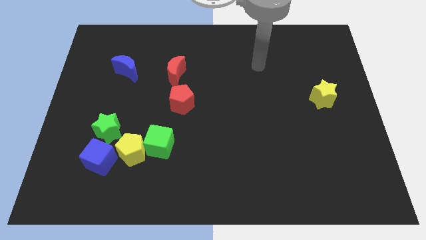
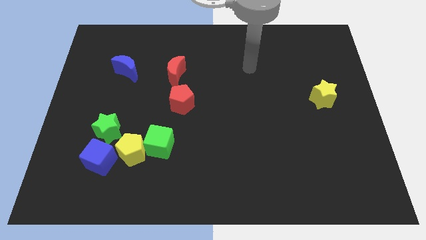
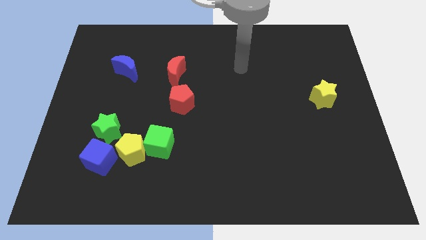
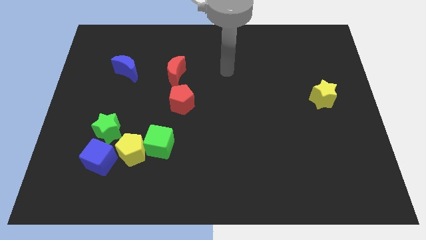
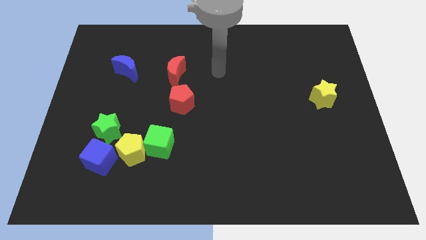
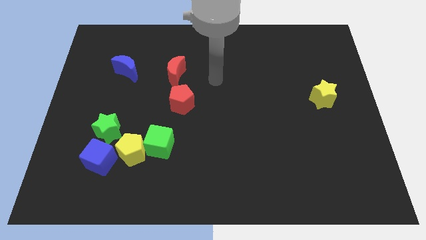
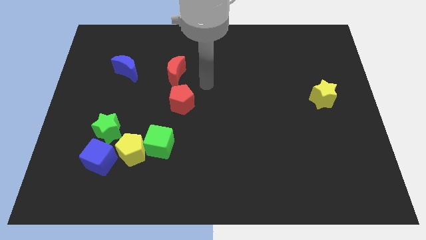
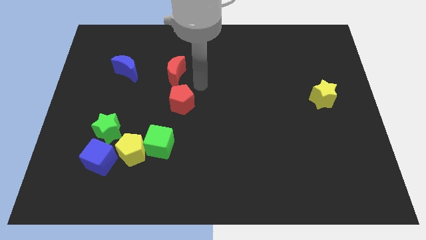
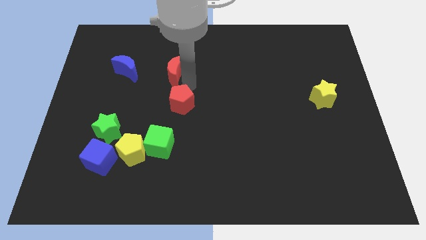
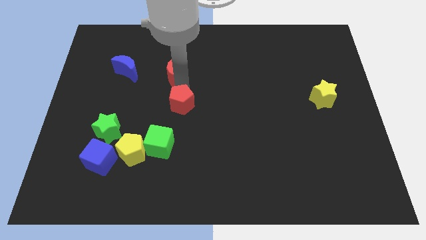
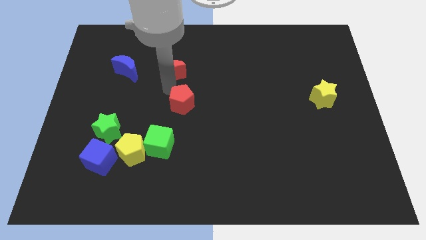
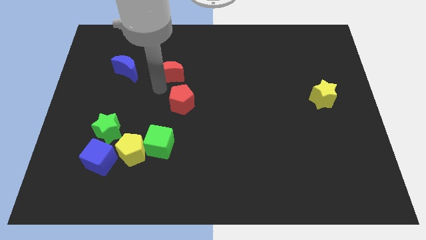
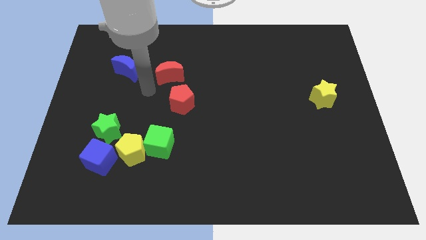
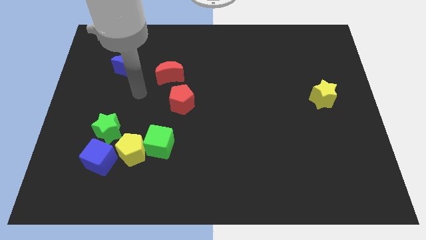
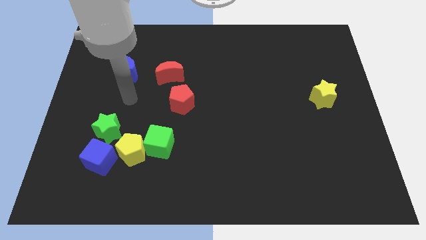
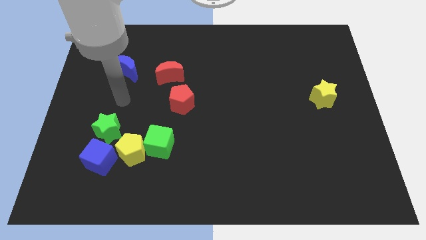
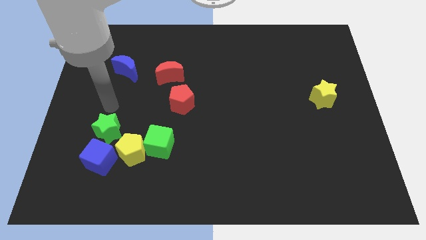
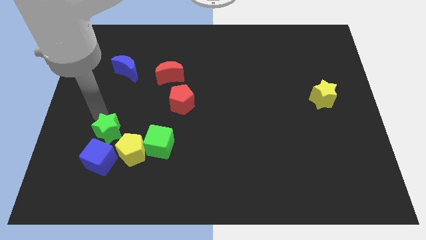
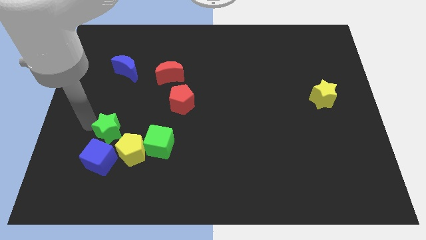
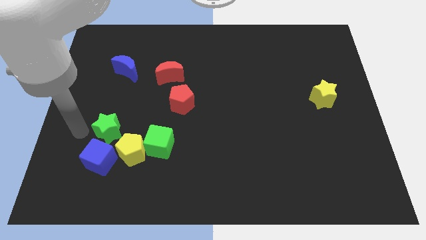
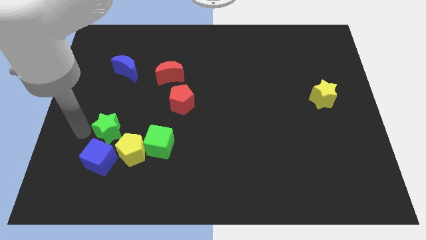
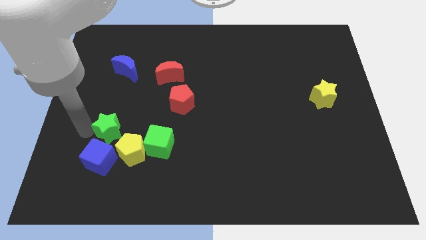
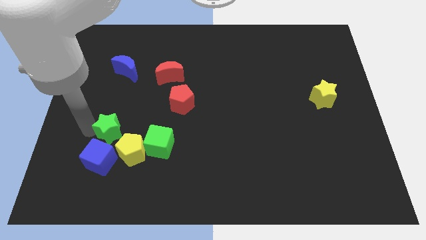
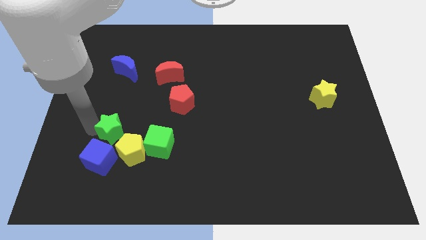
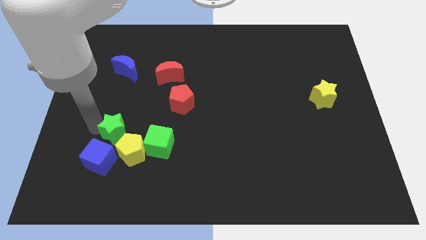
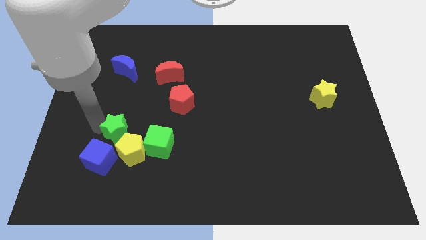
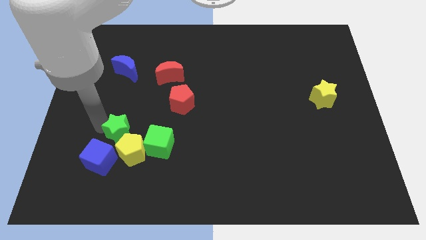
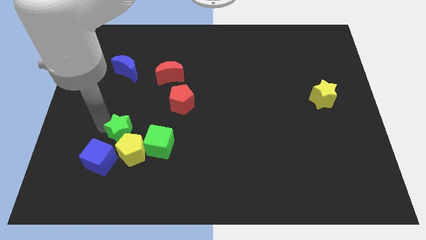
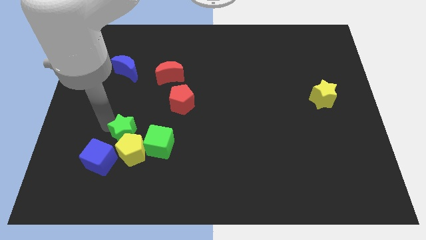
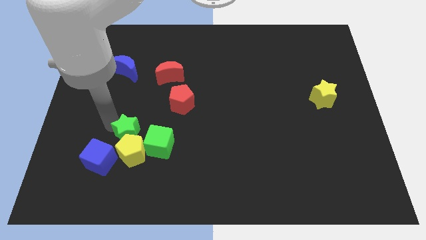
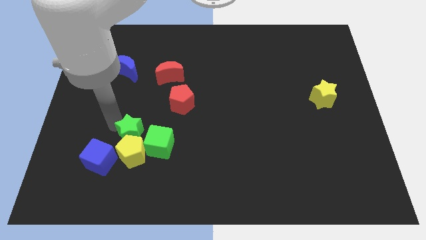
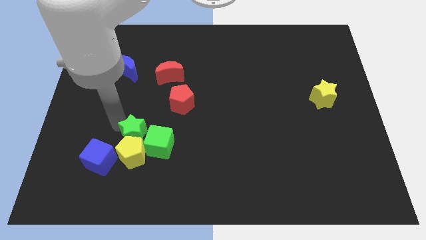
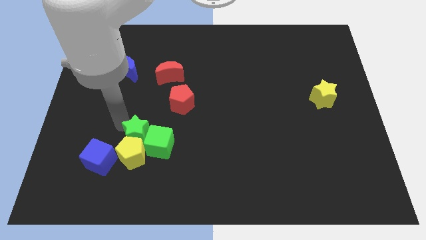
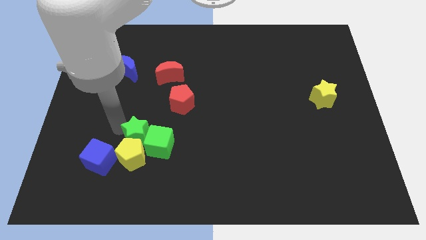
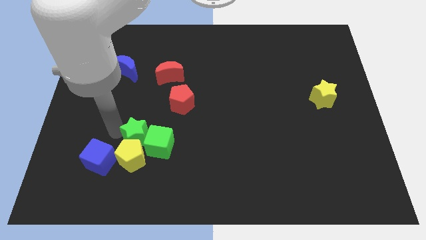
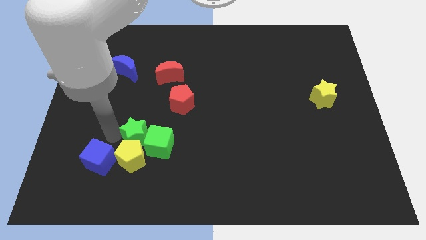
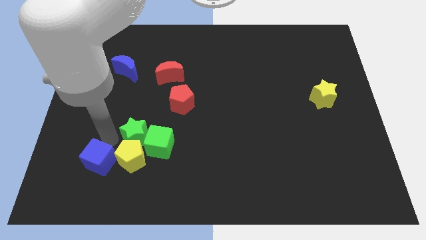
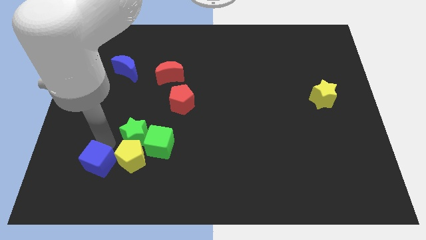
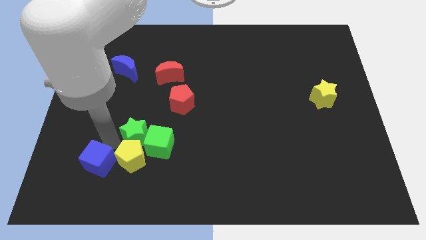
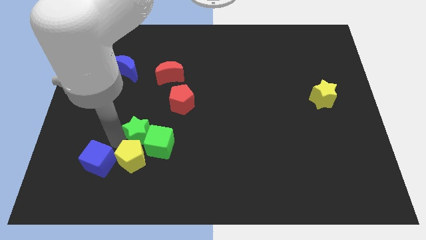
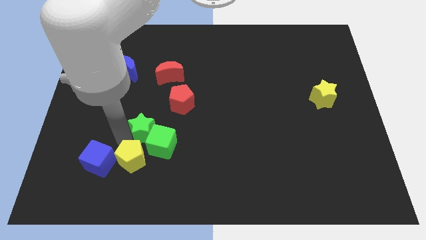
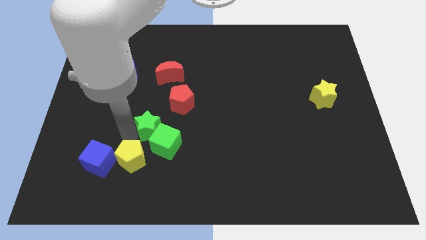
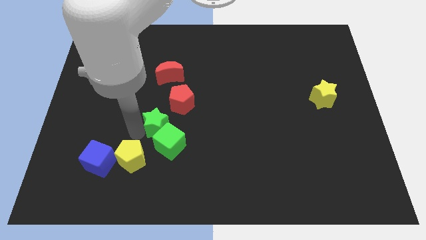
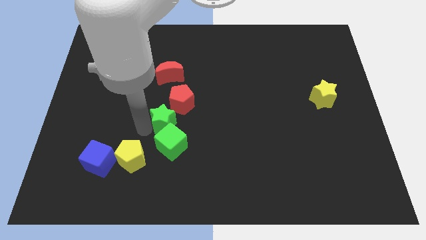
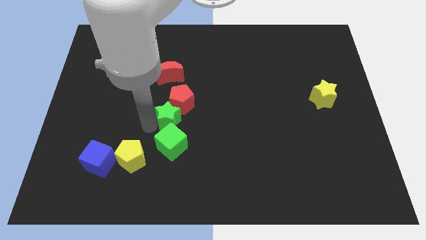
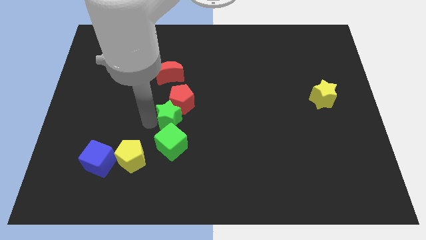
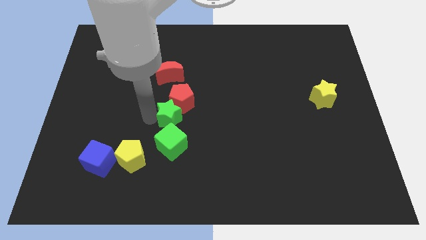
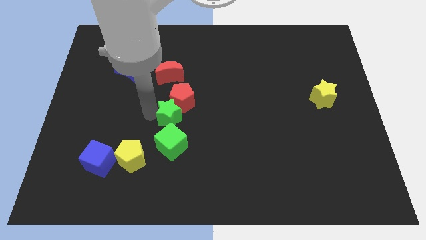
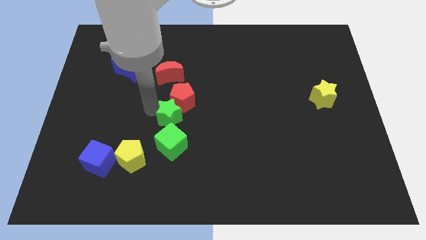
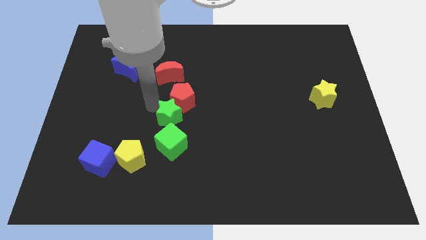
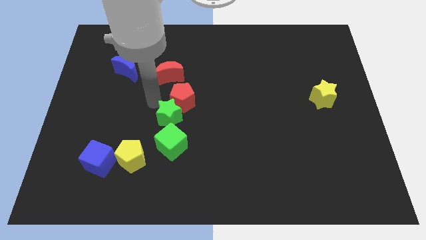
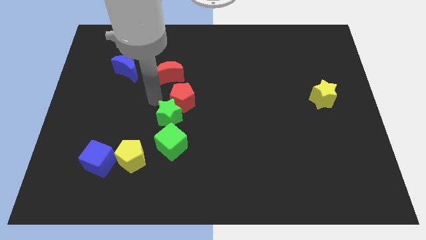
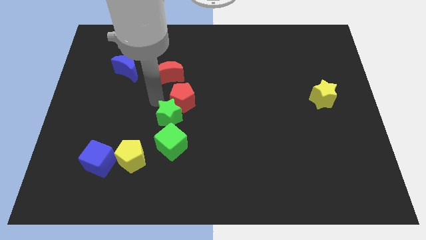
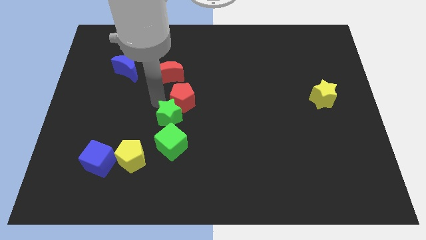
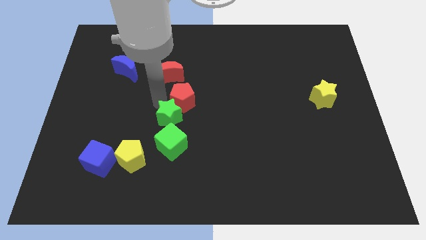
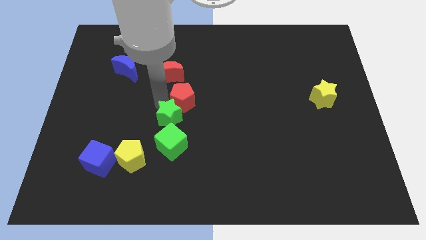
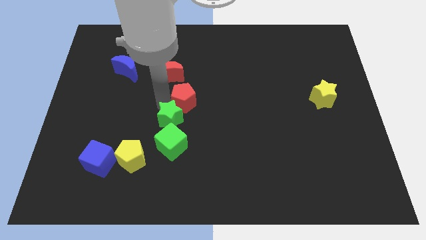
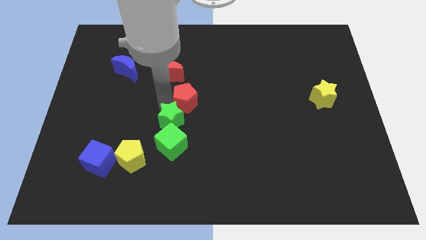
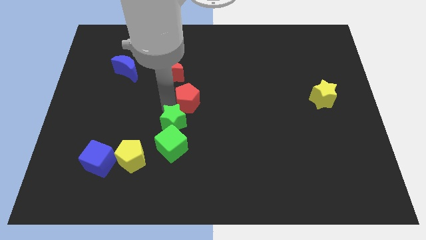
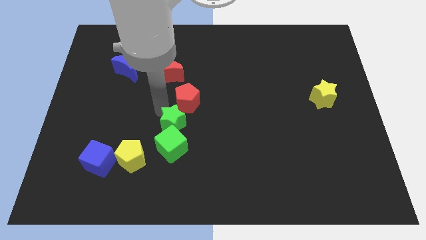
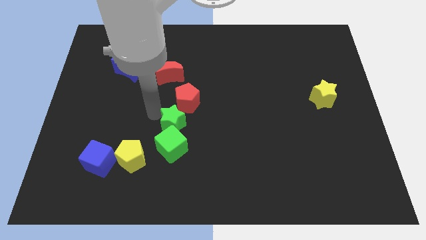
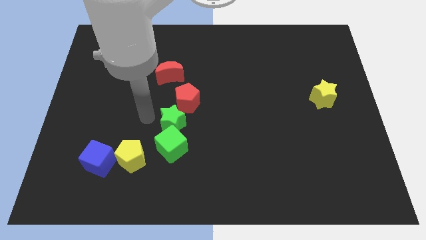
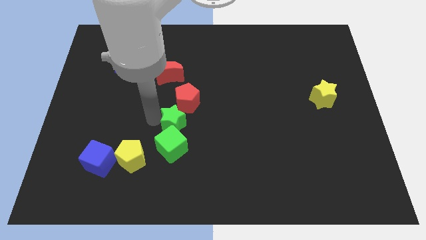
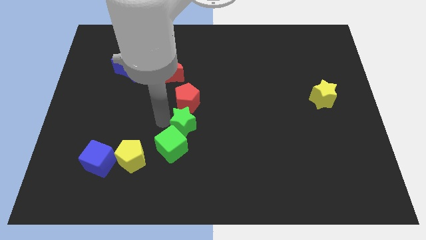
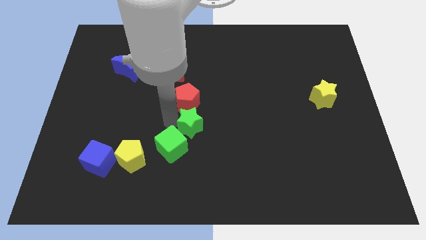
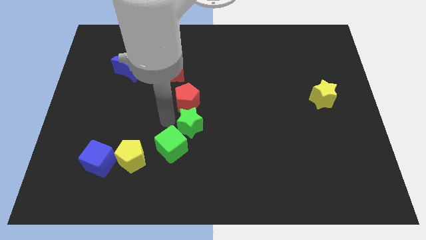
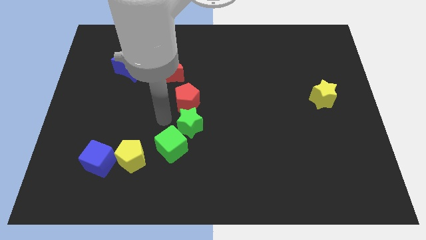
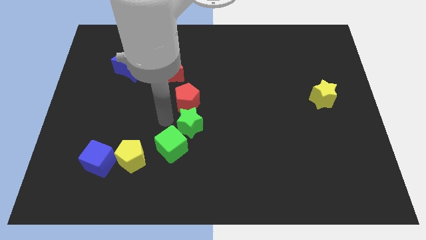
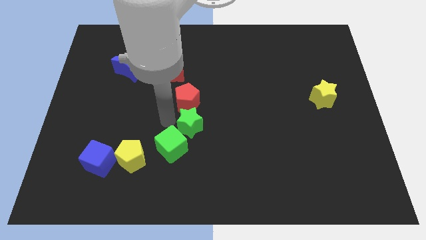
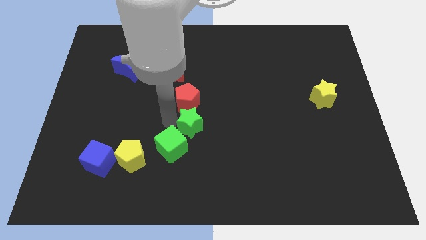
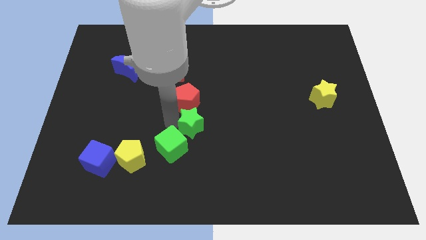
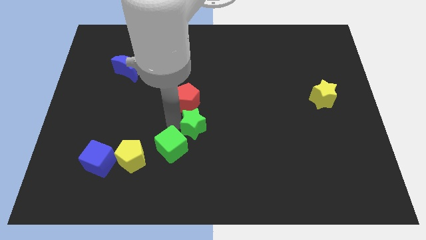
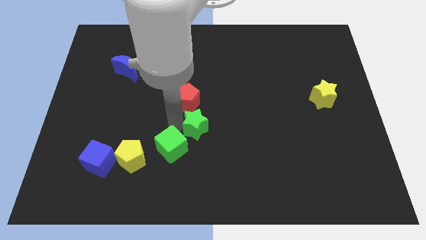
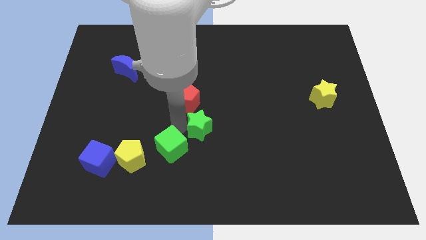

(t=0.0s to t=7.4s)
move the green star to the right

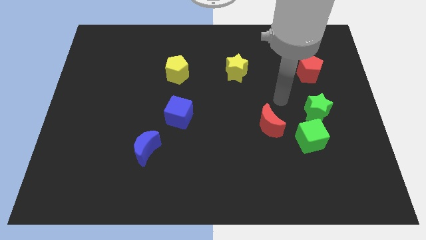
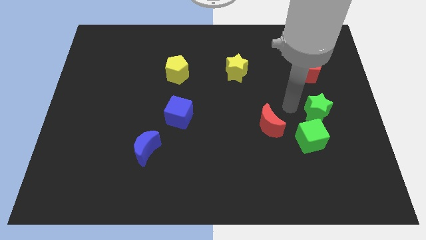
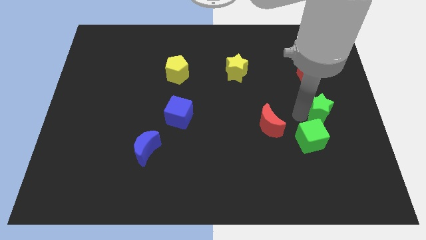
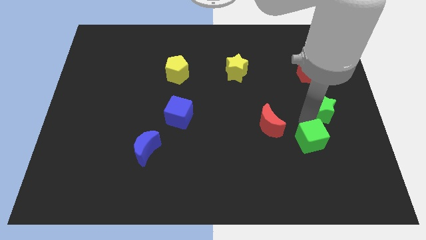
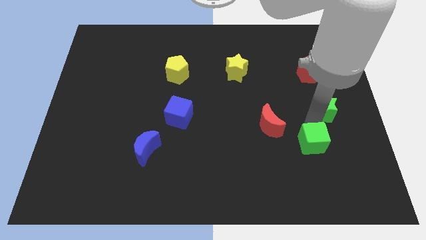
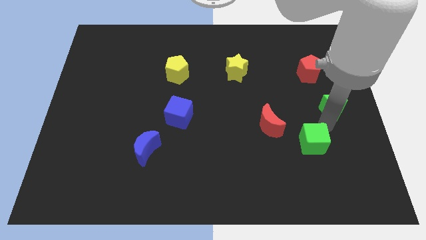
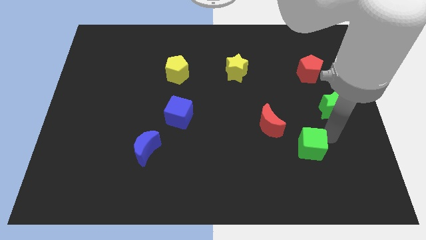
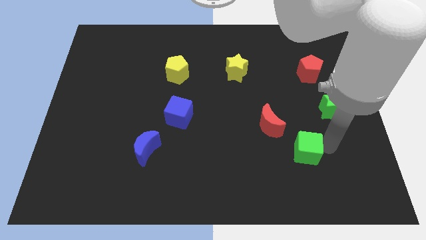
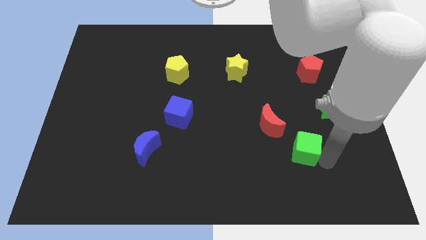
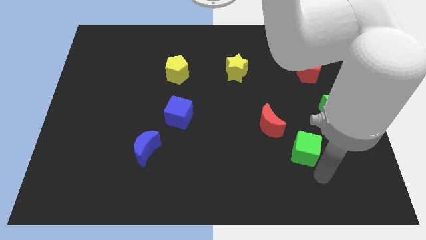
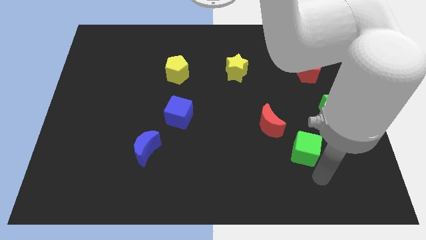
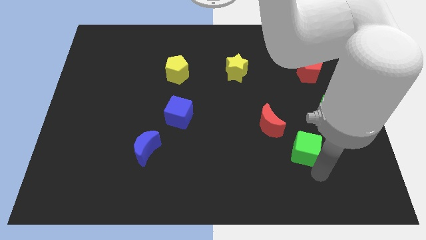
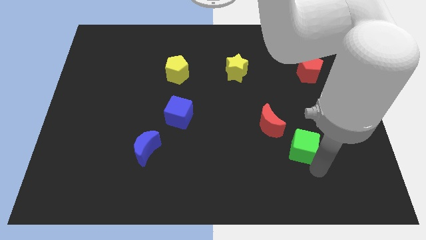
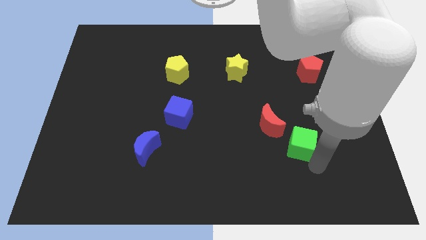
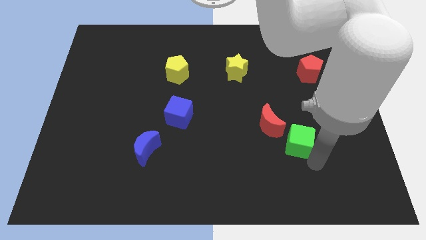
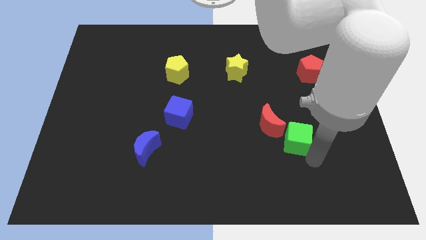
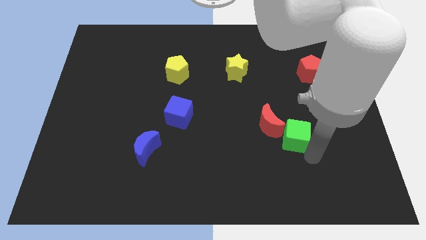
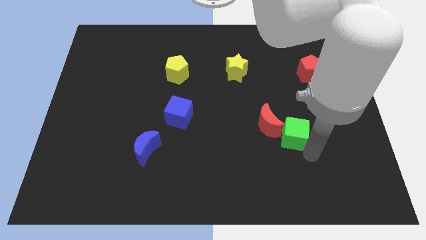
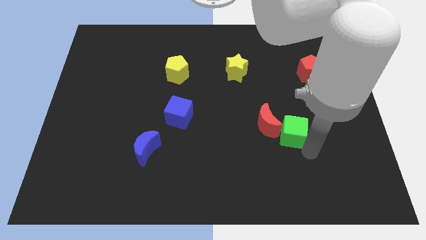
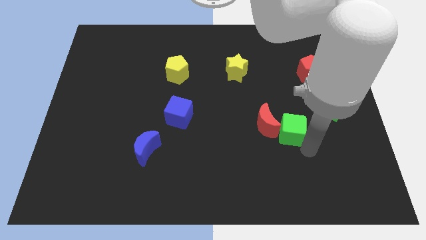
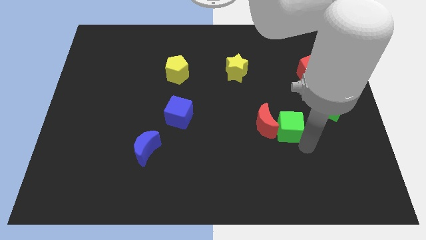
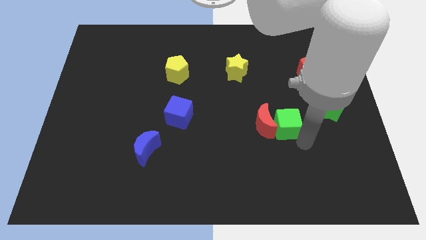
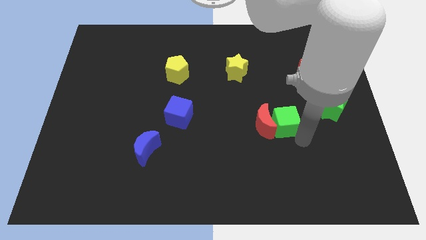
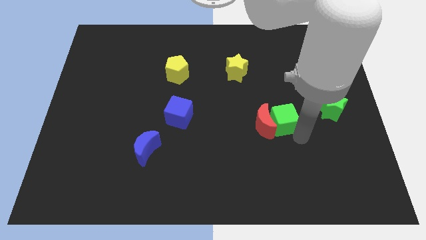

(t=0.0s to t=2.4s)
push the green cube a little bit diagonally up and to the left
